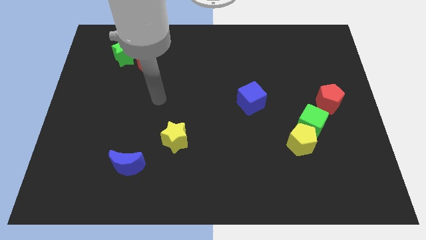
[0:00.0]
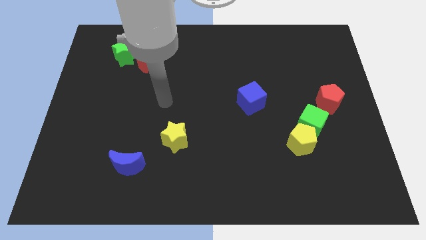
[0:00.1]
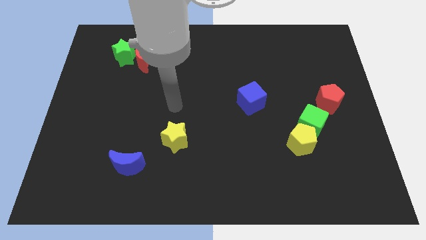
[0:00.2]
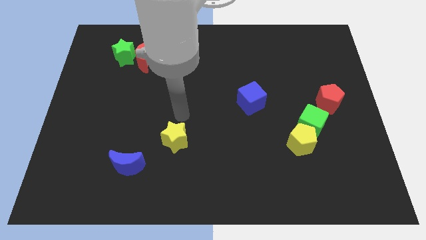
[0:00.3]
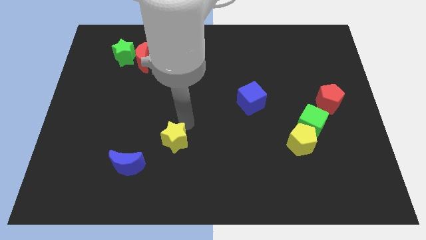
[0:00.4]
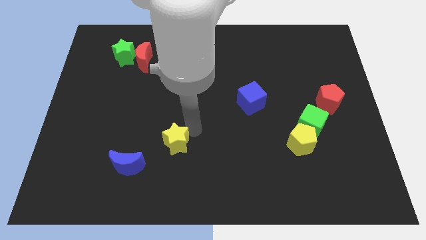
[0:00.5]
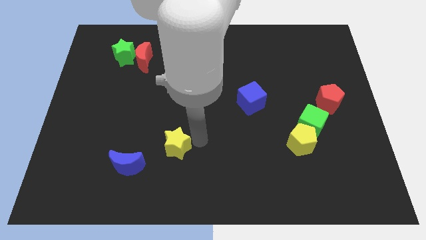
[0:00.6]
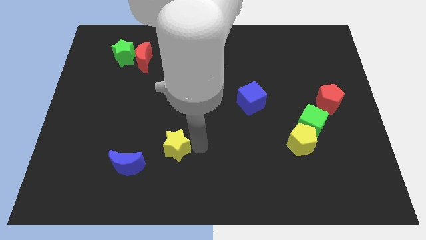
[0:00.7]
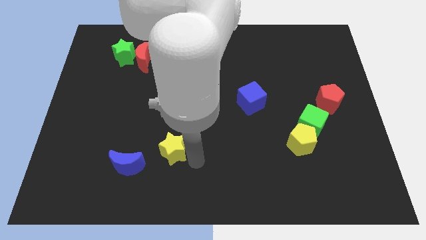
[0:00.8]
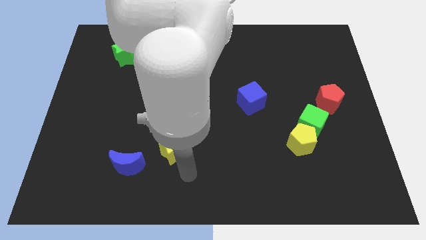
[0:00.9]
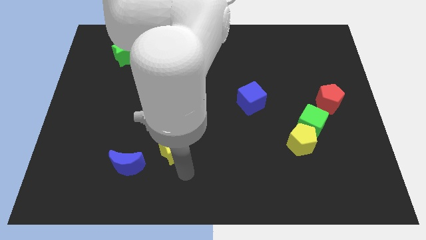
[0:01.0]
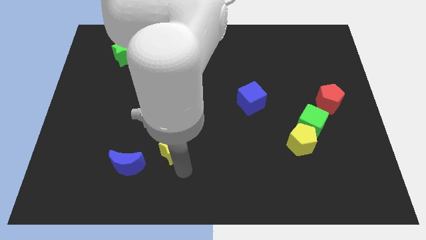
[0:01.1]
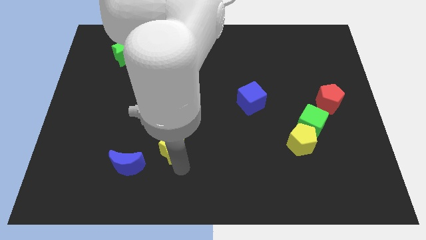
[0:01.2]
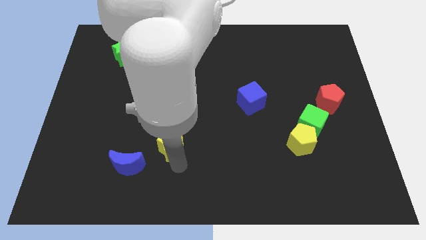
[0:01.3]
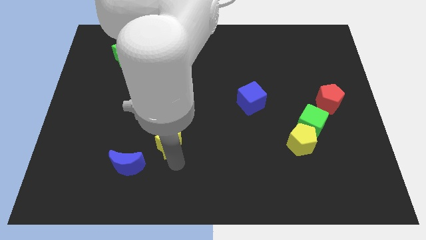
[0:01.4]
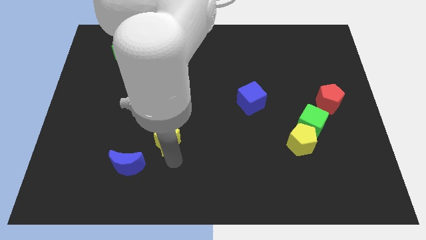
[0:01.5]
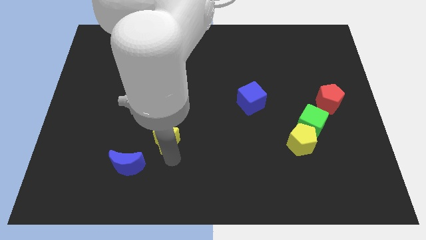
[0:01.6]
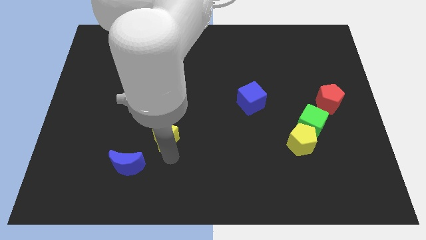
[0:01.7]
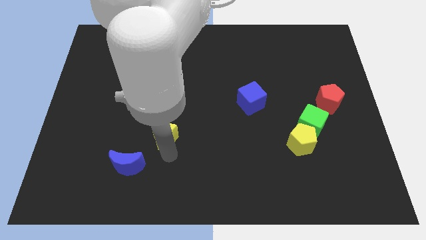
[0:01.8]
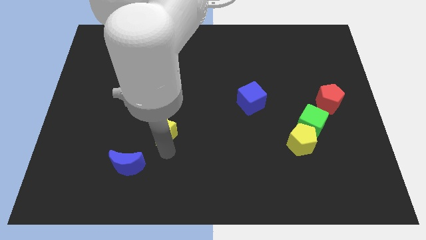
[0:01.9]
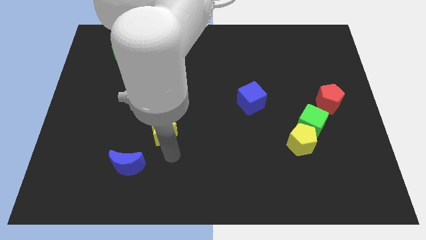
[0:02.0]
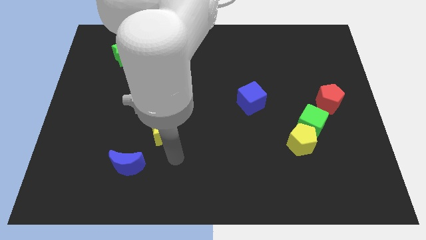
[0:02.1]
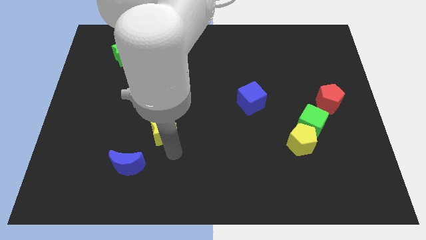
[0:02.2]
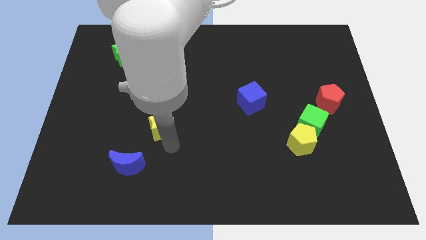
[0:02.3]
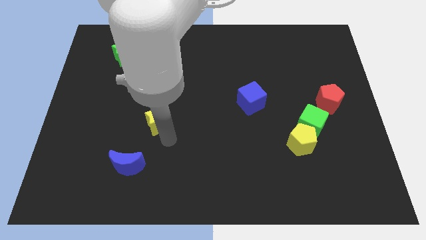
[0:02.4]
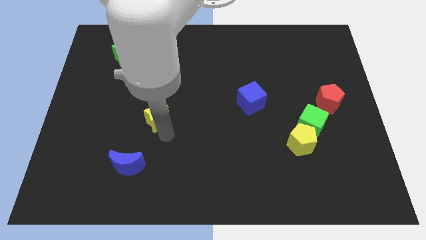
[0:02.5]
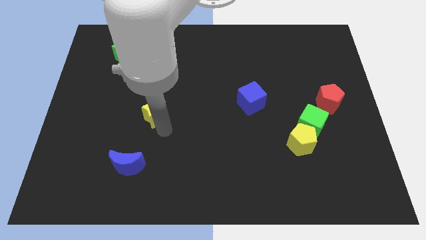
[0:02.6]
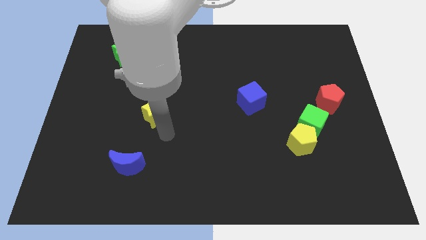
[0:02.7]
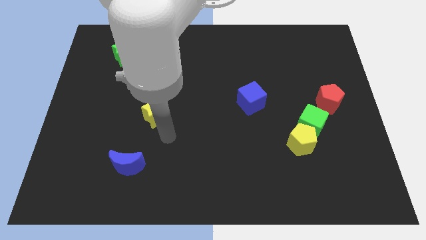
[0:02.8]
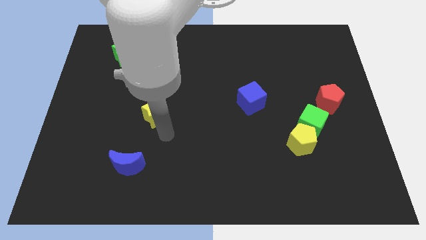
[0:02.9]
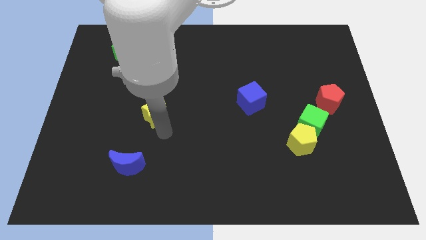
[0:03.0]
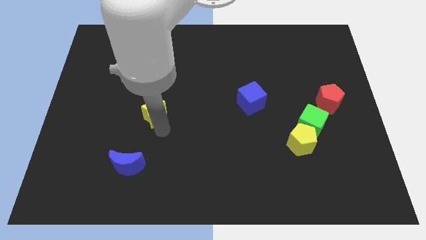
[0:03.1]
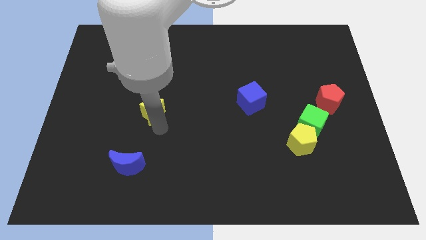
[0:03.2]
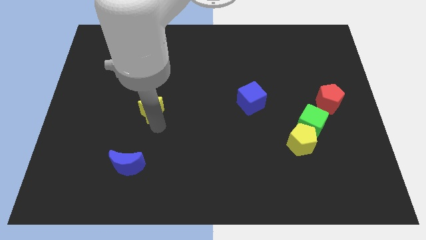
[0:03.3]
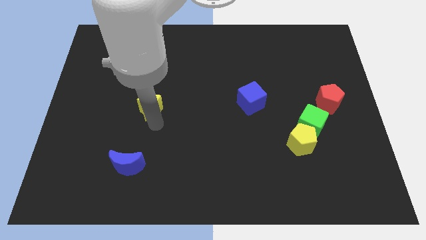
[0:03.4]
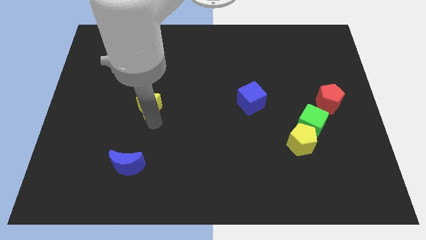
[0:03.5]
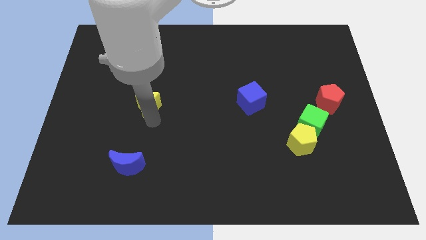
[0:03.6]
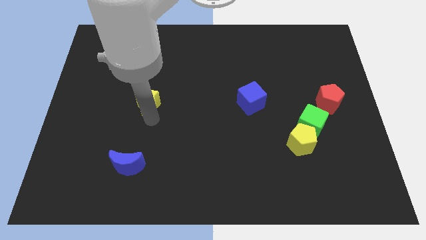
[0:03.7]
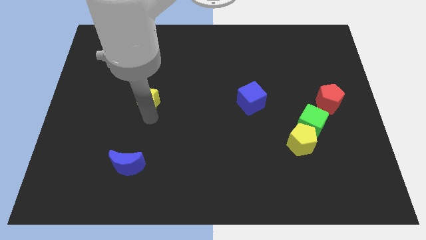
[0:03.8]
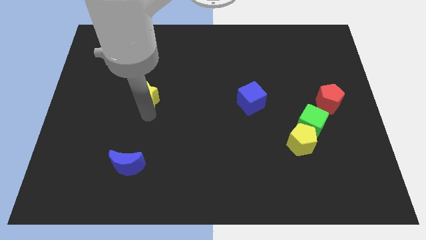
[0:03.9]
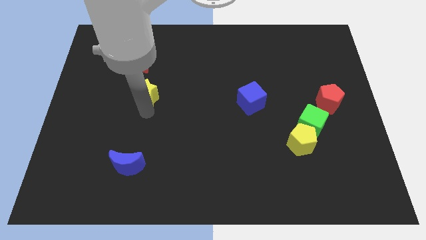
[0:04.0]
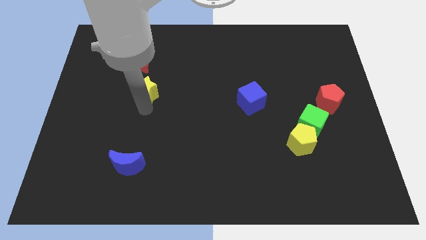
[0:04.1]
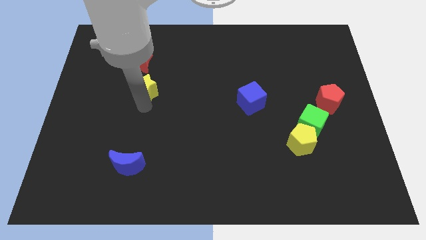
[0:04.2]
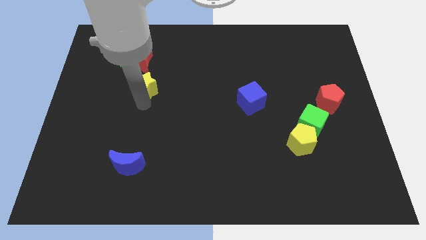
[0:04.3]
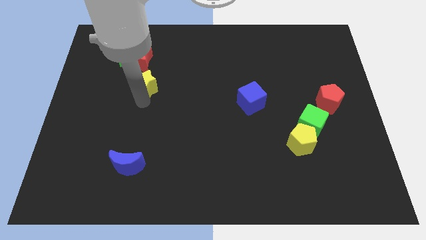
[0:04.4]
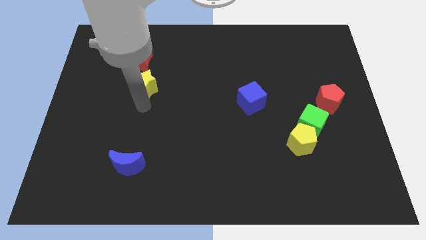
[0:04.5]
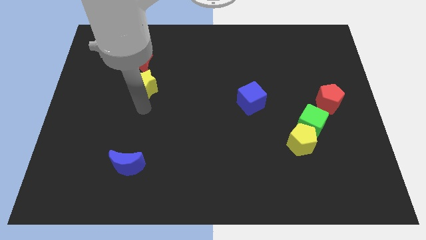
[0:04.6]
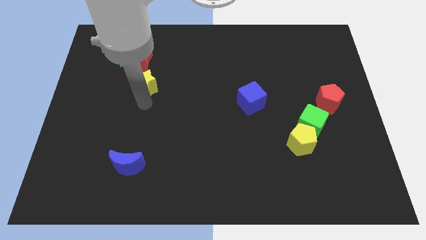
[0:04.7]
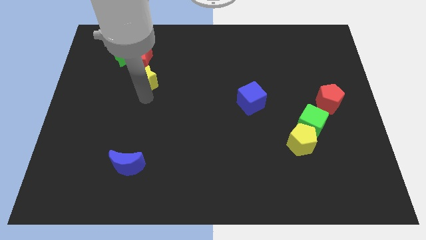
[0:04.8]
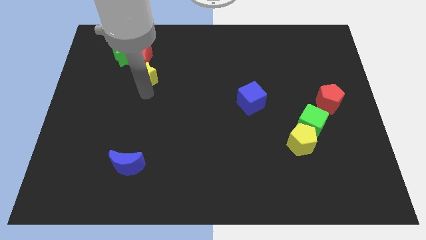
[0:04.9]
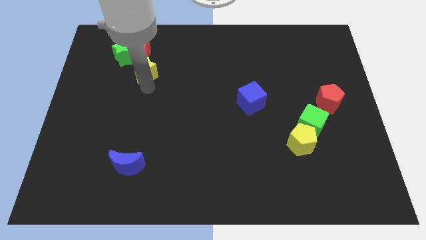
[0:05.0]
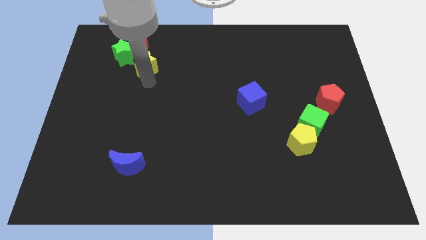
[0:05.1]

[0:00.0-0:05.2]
put the yellow star next to the red moon

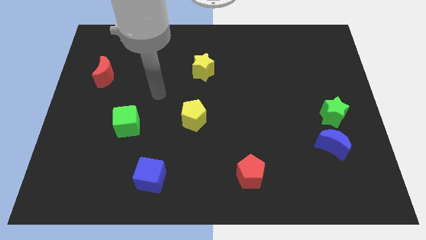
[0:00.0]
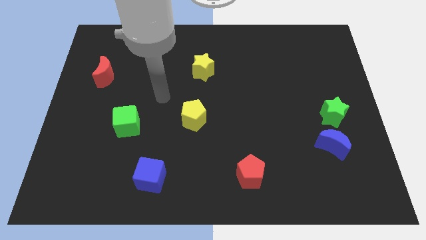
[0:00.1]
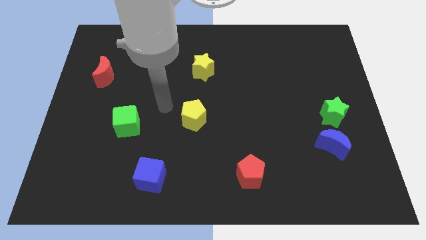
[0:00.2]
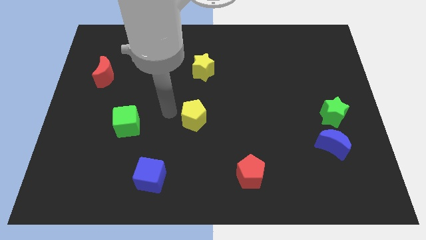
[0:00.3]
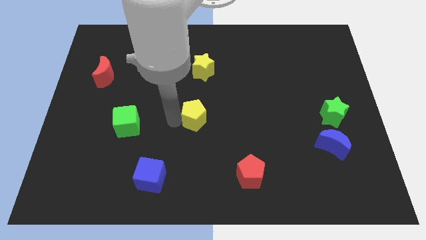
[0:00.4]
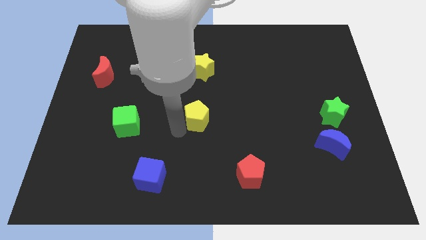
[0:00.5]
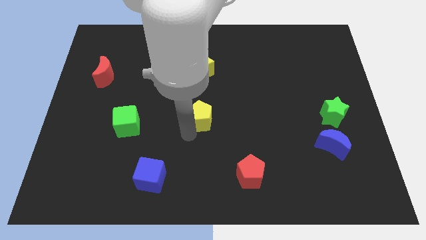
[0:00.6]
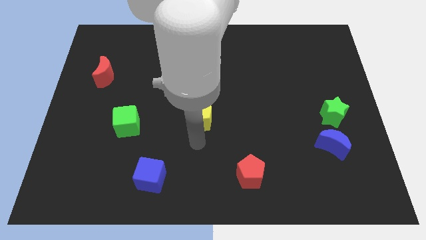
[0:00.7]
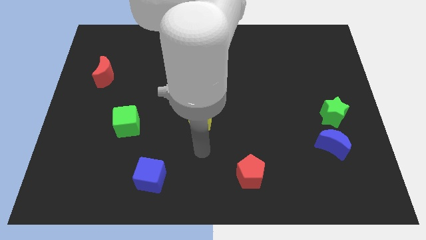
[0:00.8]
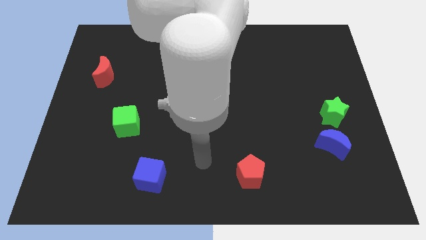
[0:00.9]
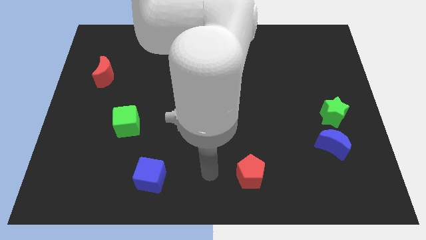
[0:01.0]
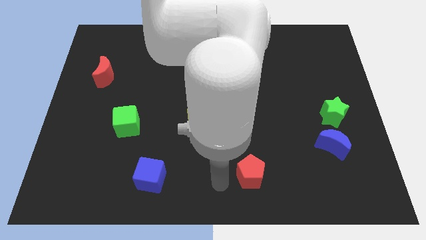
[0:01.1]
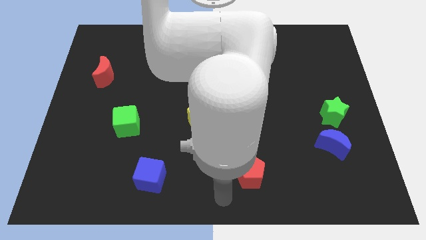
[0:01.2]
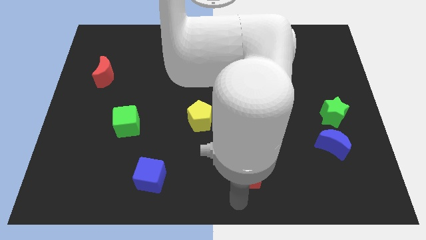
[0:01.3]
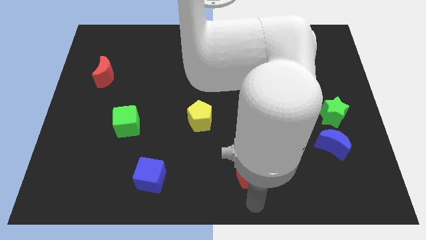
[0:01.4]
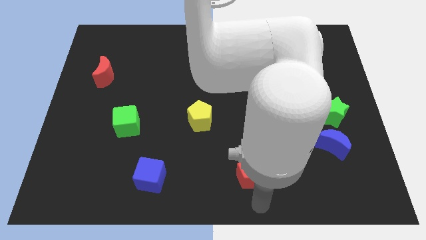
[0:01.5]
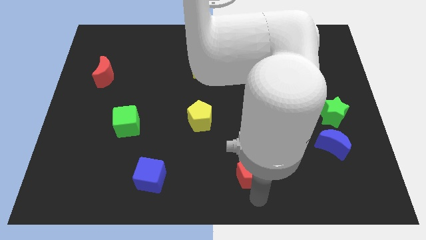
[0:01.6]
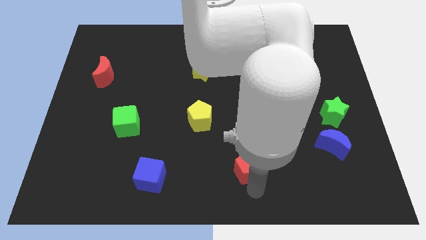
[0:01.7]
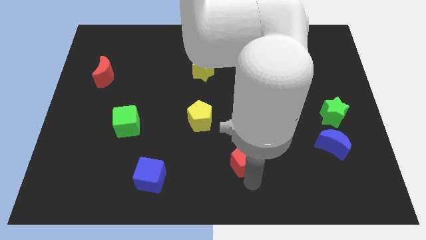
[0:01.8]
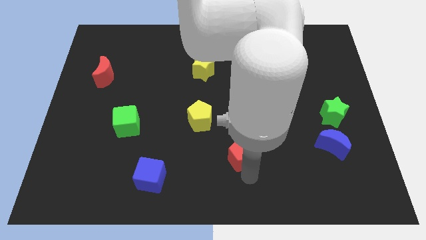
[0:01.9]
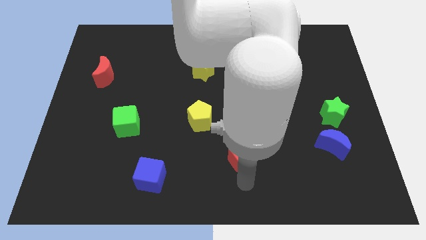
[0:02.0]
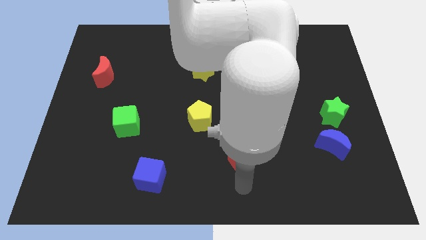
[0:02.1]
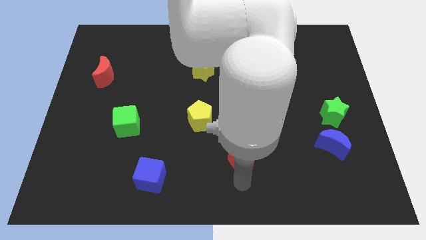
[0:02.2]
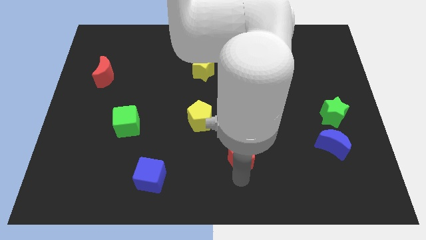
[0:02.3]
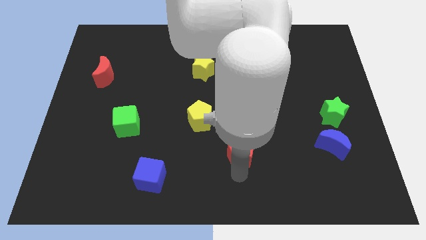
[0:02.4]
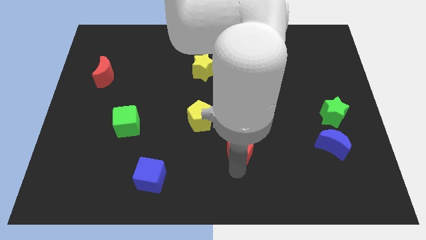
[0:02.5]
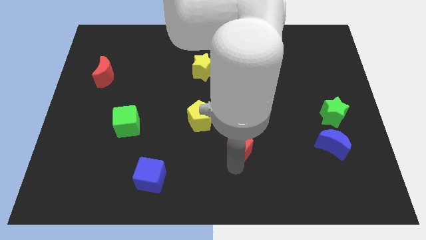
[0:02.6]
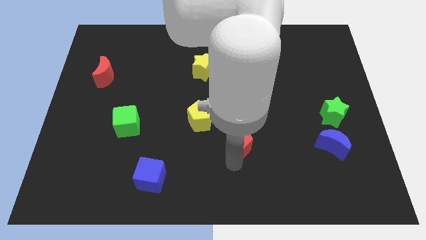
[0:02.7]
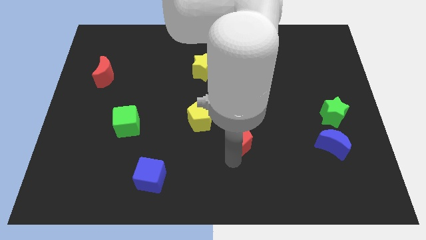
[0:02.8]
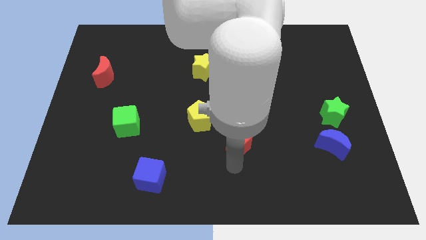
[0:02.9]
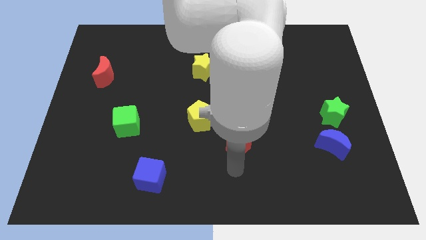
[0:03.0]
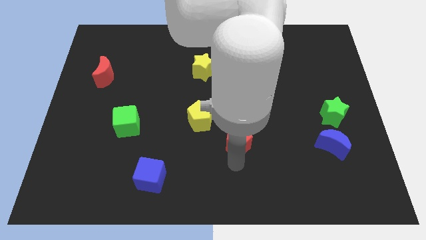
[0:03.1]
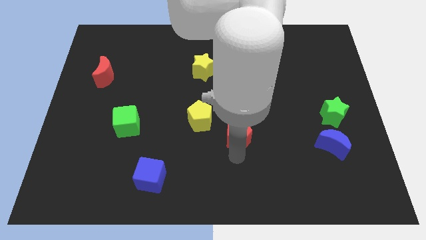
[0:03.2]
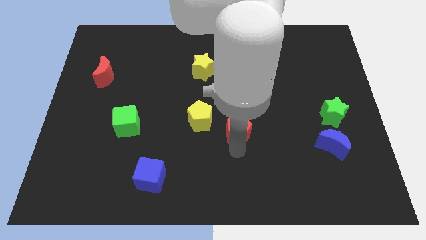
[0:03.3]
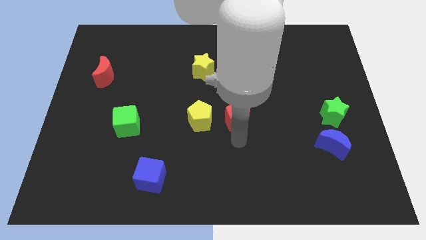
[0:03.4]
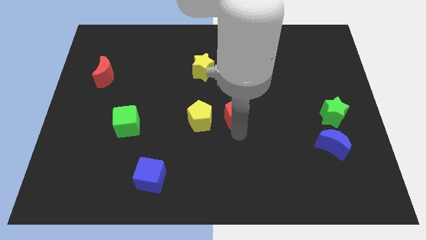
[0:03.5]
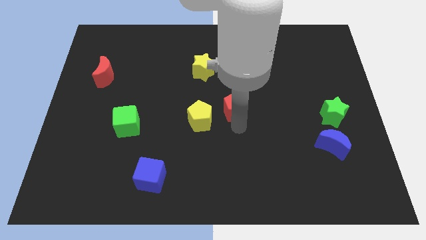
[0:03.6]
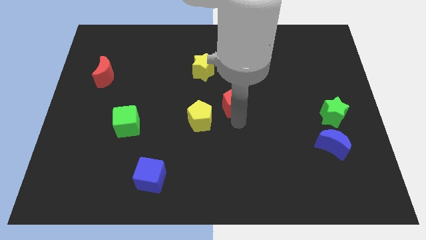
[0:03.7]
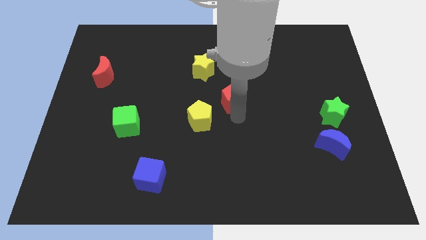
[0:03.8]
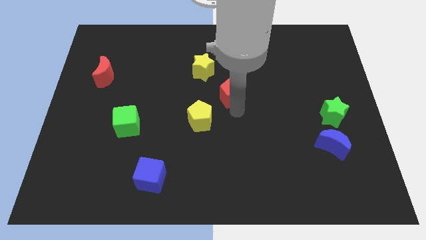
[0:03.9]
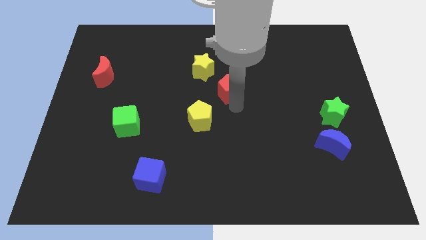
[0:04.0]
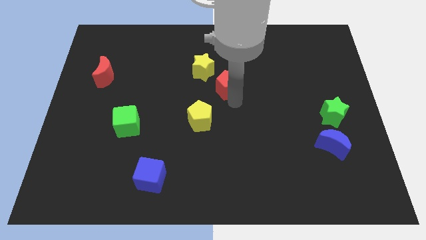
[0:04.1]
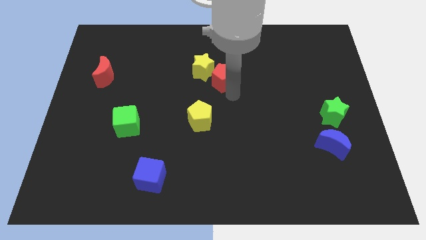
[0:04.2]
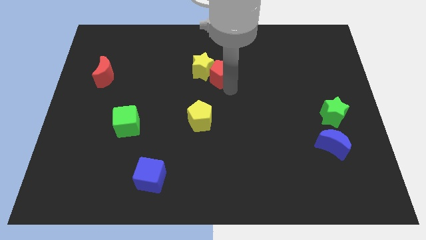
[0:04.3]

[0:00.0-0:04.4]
slide the red pentagon close to the yellow star
